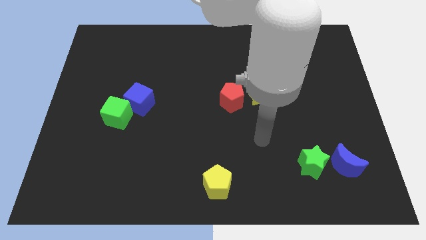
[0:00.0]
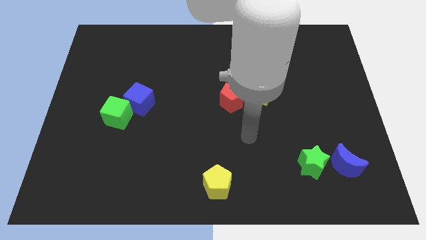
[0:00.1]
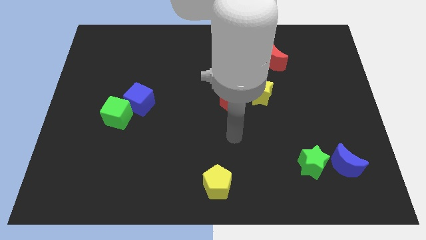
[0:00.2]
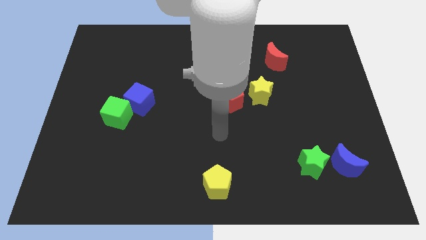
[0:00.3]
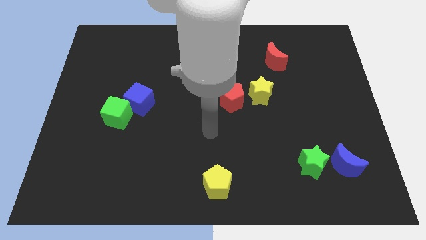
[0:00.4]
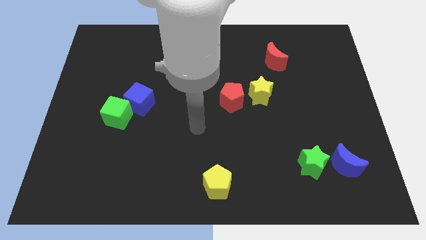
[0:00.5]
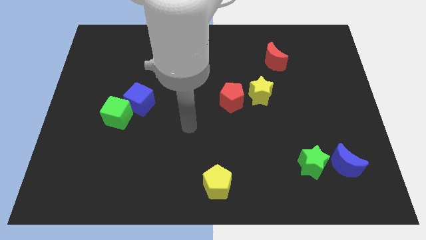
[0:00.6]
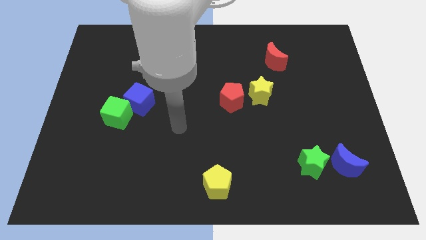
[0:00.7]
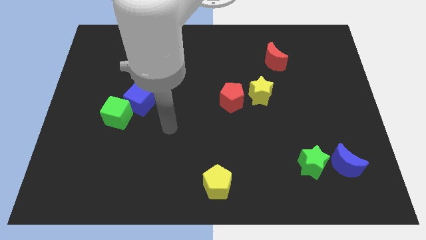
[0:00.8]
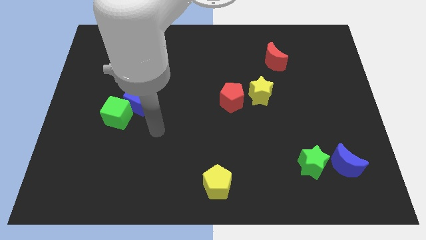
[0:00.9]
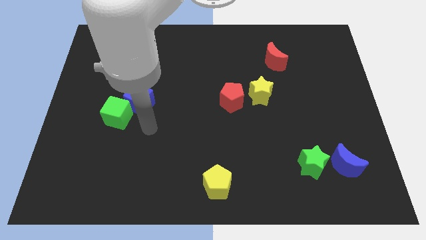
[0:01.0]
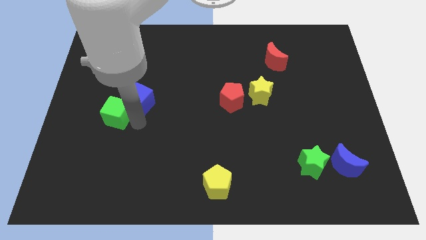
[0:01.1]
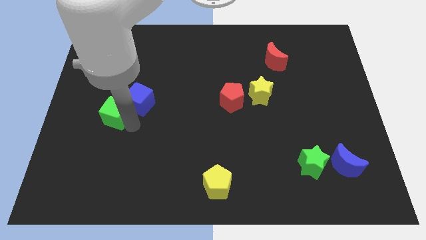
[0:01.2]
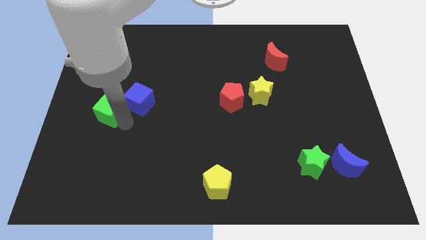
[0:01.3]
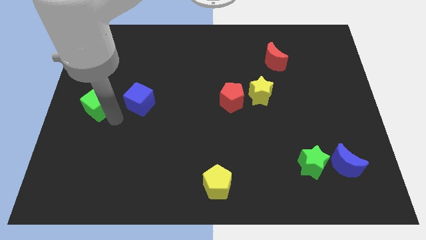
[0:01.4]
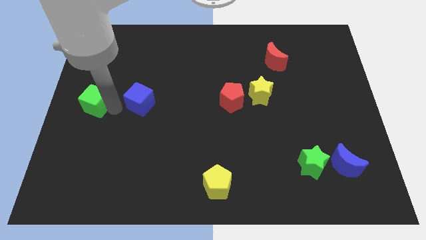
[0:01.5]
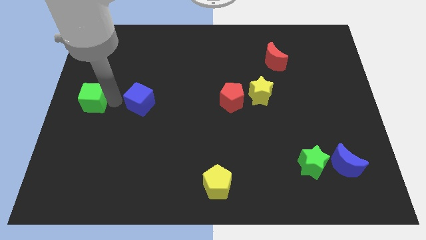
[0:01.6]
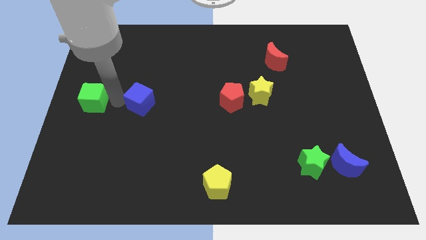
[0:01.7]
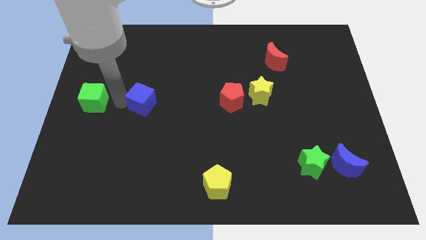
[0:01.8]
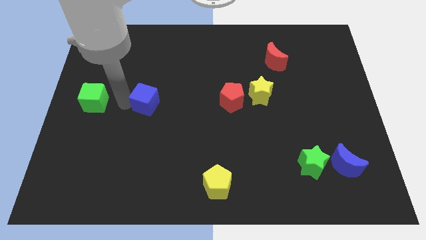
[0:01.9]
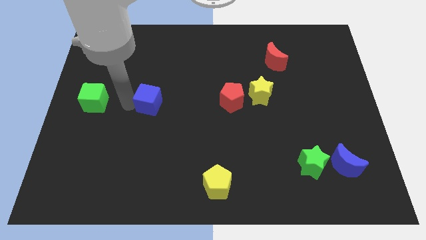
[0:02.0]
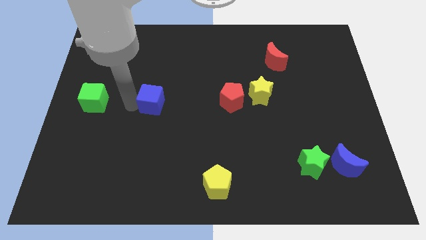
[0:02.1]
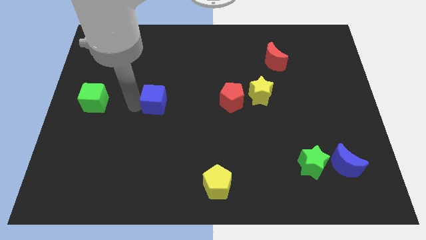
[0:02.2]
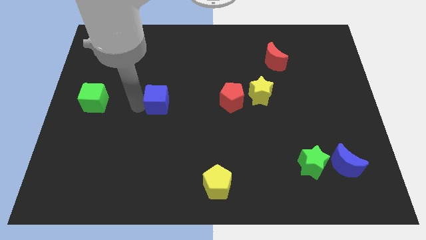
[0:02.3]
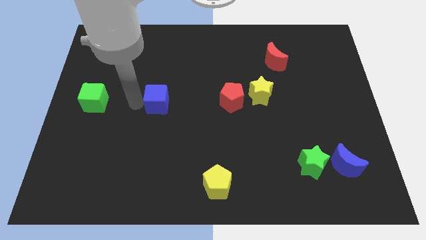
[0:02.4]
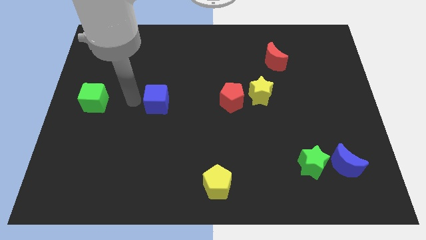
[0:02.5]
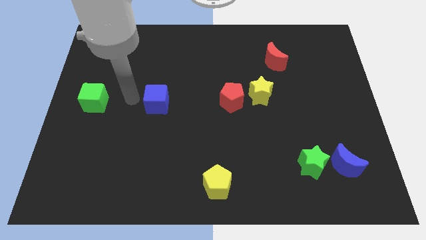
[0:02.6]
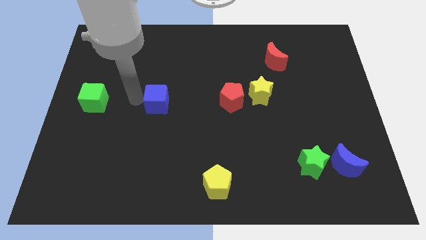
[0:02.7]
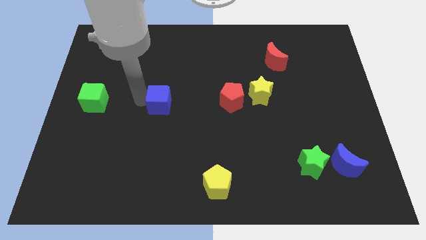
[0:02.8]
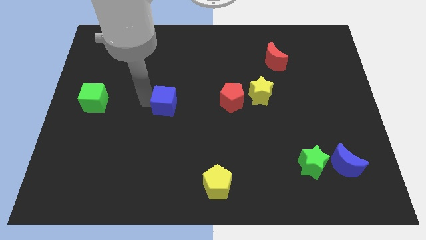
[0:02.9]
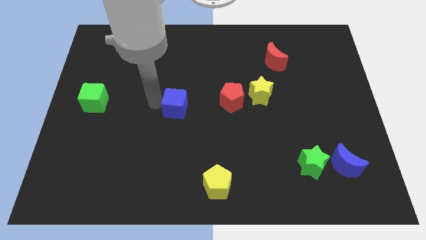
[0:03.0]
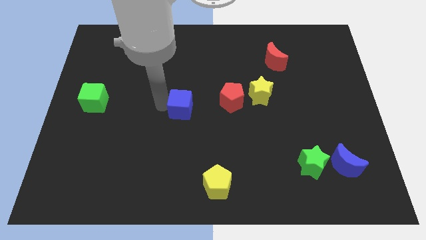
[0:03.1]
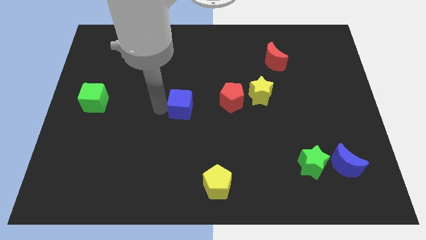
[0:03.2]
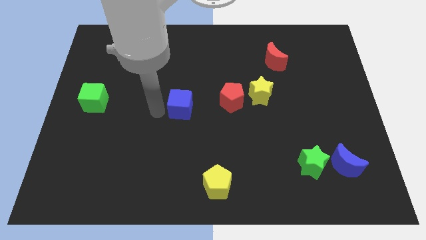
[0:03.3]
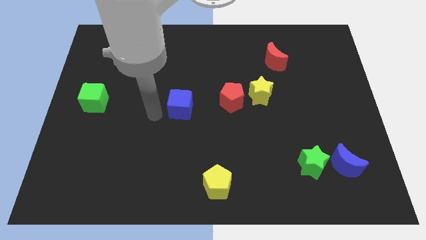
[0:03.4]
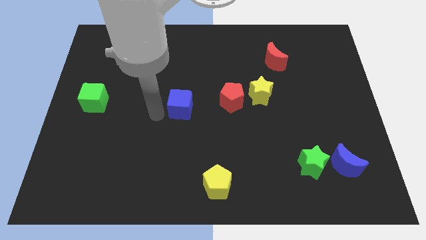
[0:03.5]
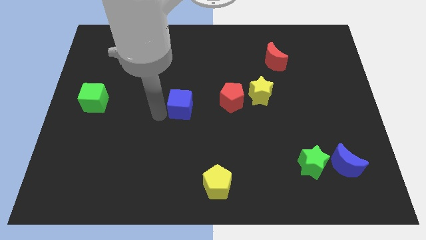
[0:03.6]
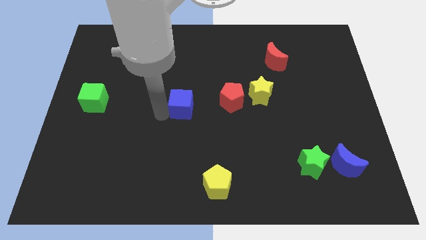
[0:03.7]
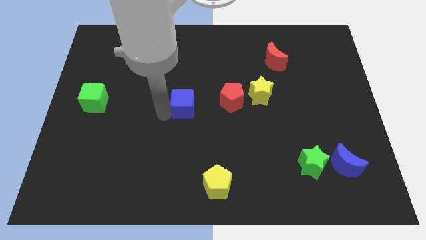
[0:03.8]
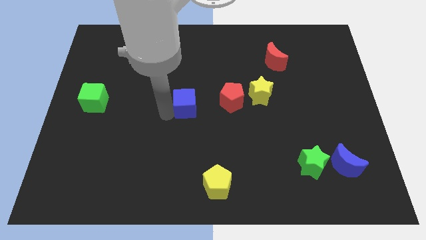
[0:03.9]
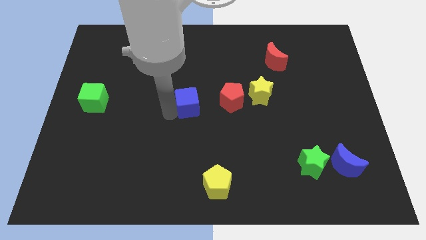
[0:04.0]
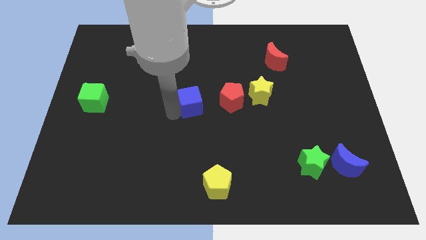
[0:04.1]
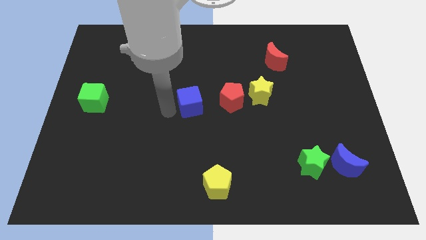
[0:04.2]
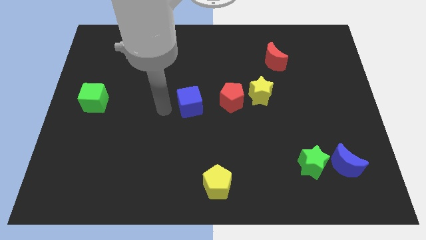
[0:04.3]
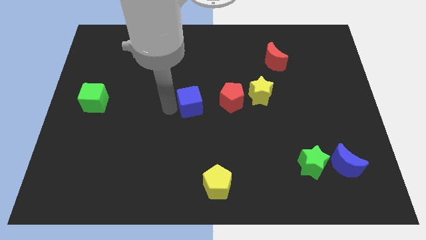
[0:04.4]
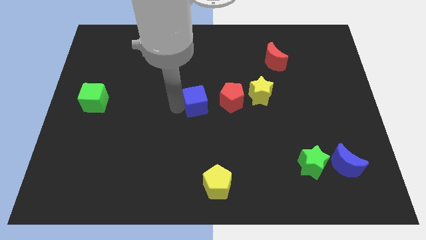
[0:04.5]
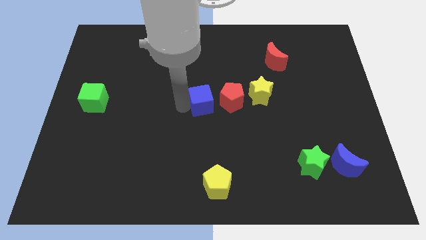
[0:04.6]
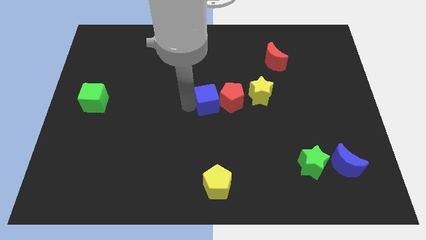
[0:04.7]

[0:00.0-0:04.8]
put the blue cube to the red pentagon

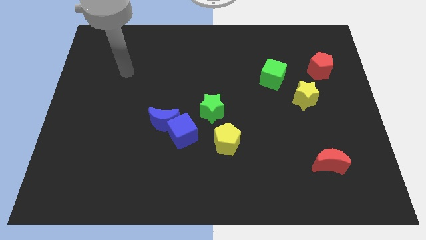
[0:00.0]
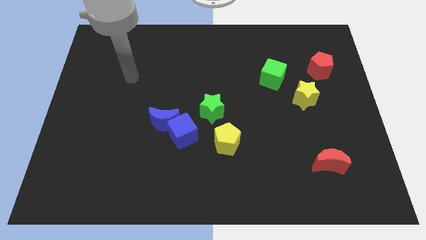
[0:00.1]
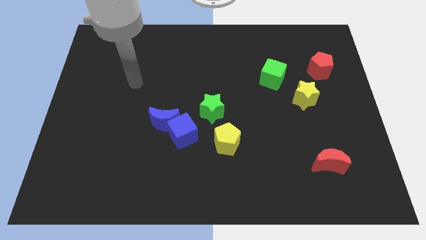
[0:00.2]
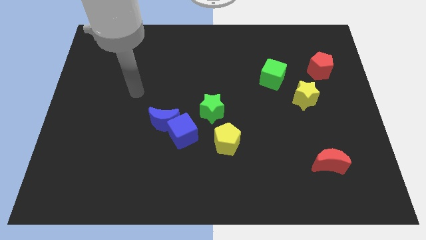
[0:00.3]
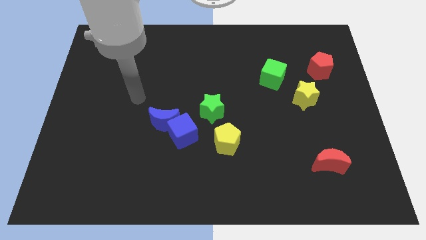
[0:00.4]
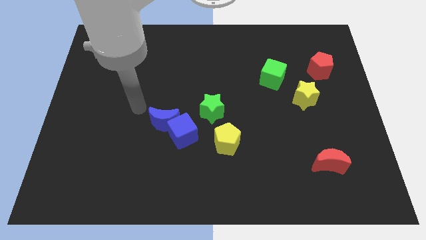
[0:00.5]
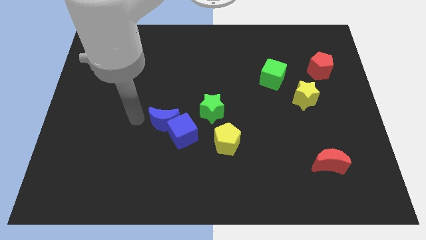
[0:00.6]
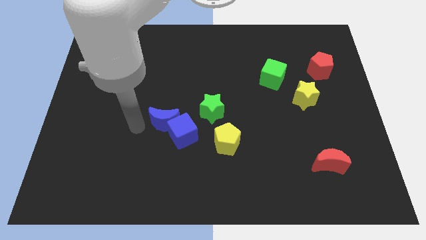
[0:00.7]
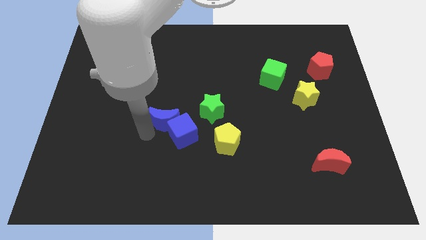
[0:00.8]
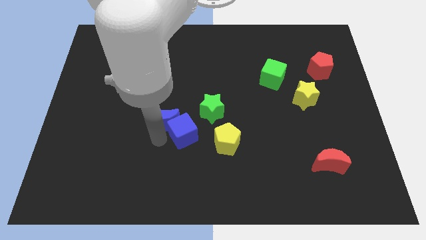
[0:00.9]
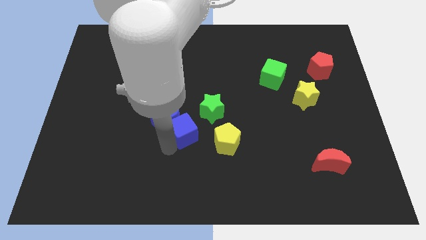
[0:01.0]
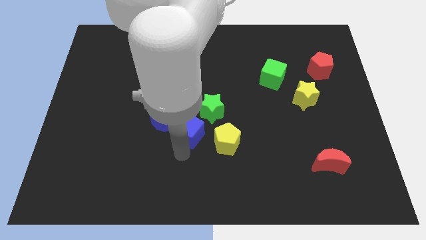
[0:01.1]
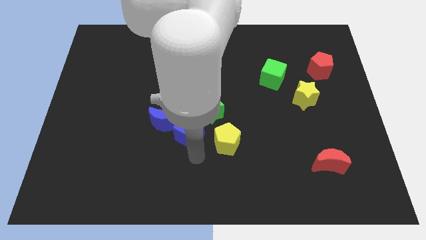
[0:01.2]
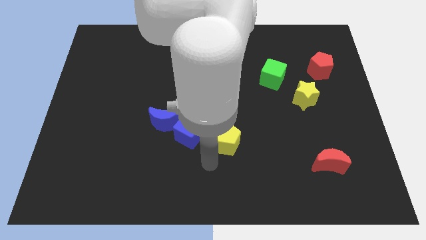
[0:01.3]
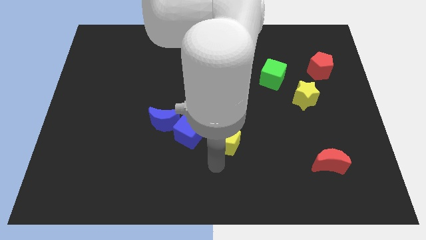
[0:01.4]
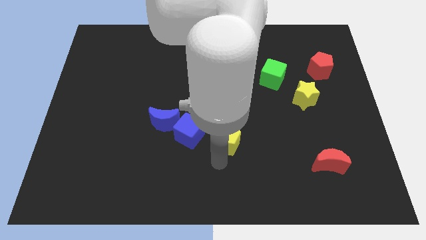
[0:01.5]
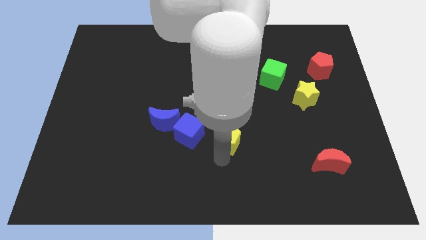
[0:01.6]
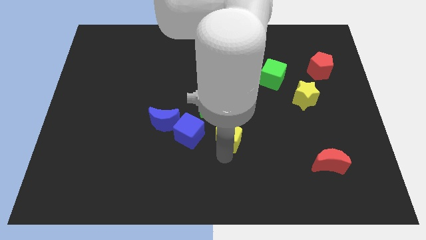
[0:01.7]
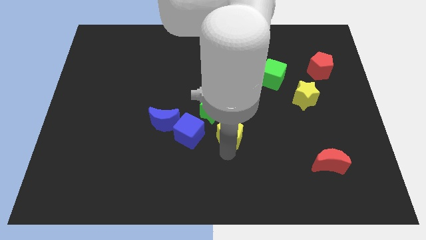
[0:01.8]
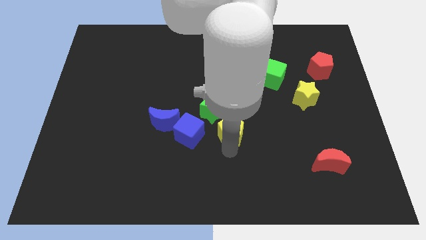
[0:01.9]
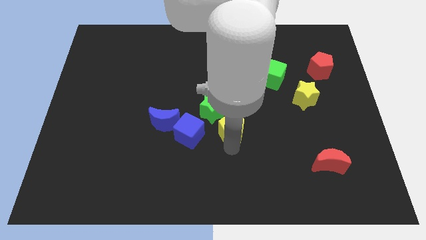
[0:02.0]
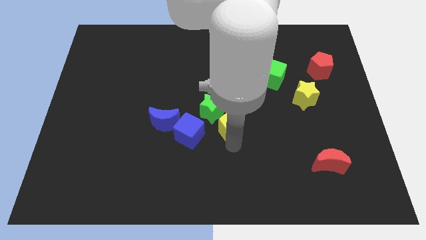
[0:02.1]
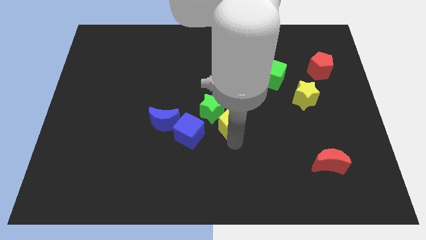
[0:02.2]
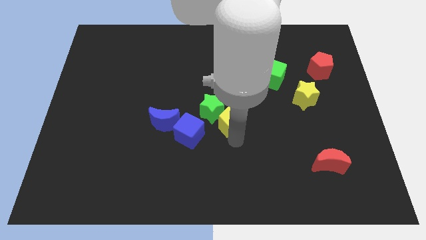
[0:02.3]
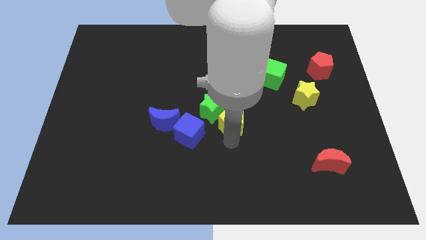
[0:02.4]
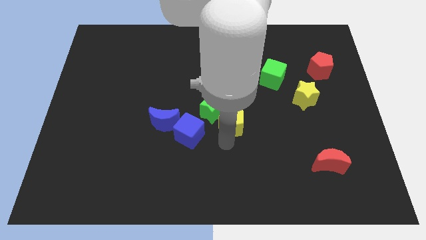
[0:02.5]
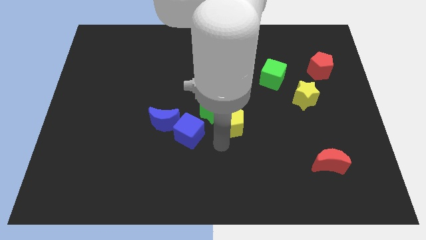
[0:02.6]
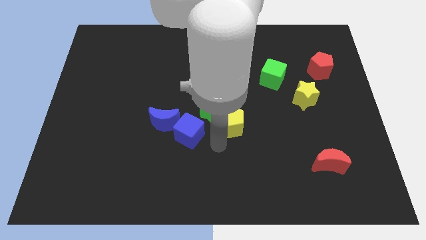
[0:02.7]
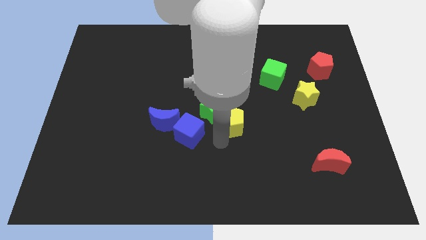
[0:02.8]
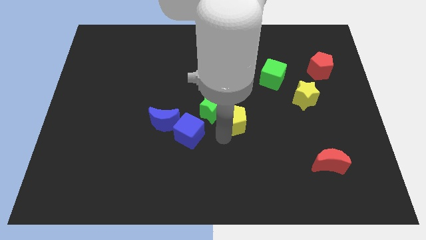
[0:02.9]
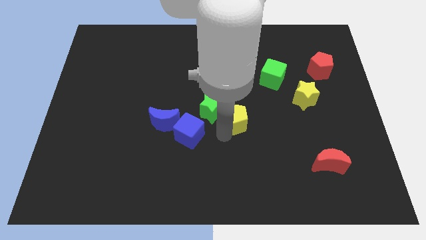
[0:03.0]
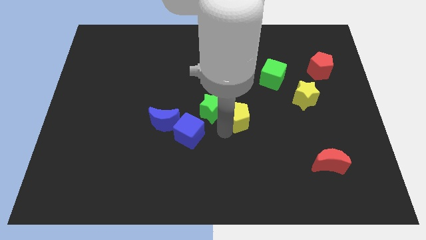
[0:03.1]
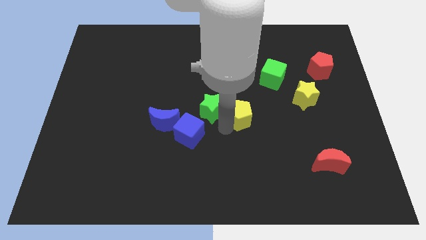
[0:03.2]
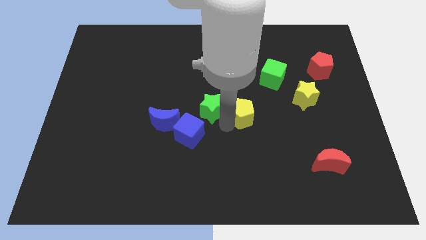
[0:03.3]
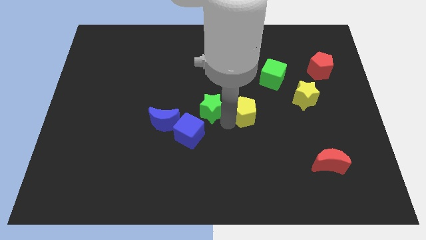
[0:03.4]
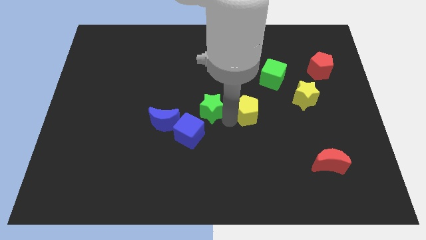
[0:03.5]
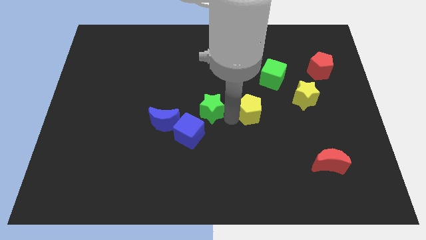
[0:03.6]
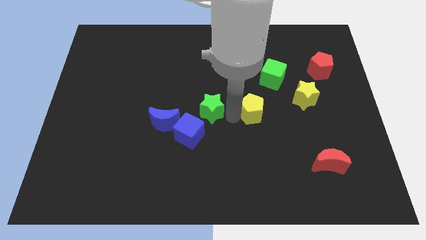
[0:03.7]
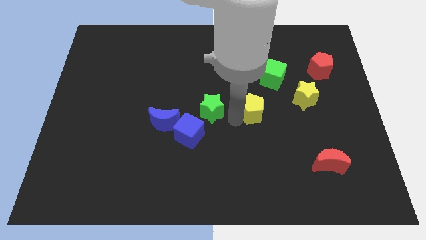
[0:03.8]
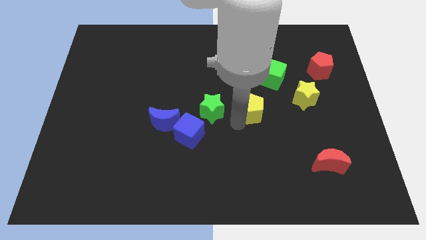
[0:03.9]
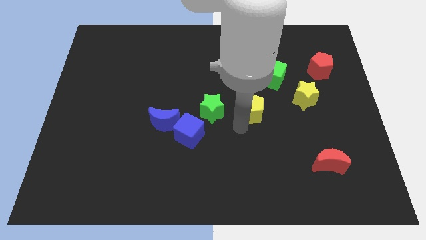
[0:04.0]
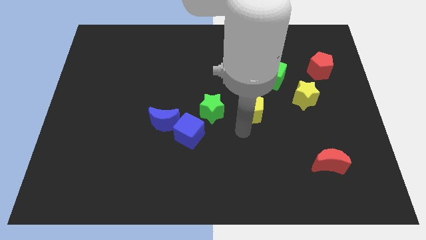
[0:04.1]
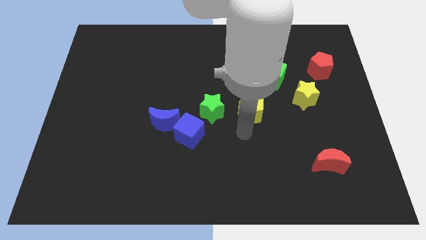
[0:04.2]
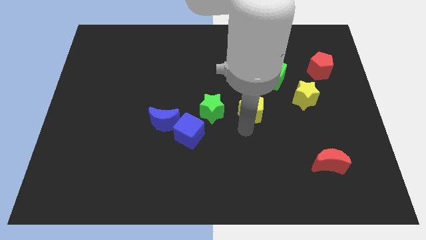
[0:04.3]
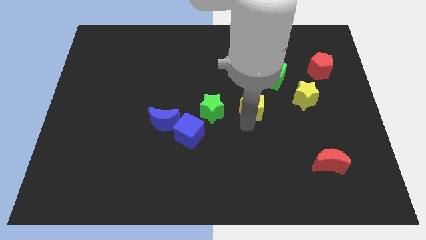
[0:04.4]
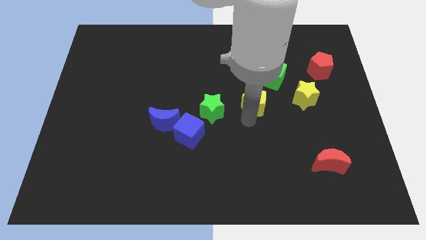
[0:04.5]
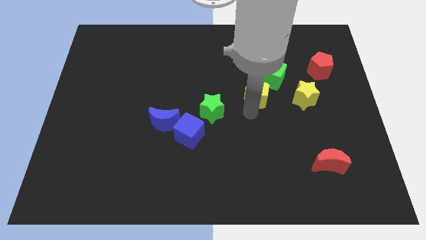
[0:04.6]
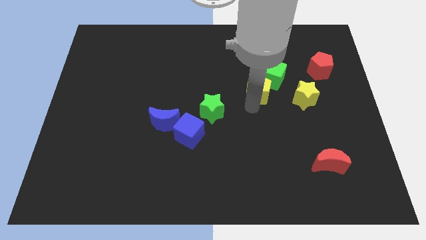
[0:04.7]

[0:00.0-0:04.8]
push the yellow pentagon to the green cube
